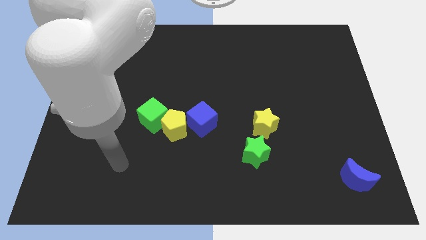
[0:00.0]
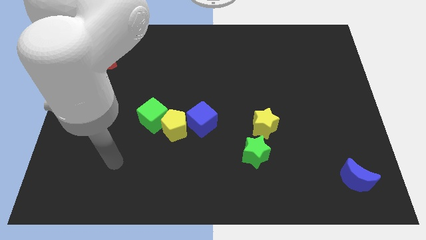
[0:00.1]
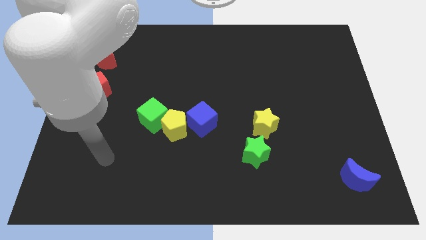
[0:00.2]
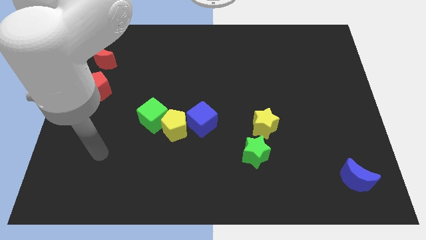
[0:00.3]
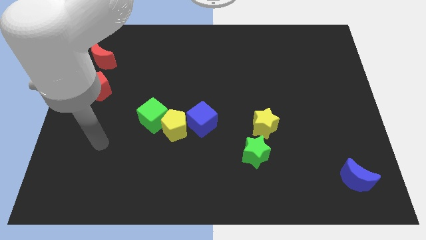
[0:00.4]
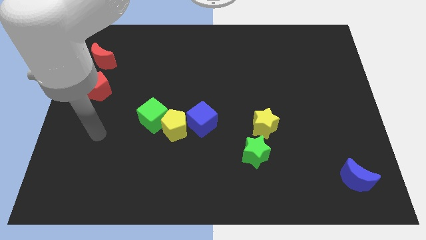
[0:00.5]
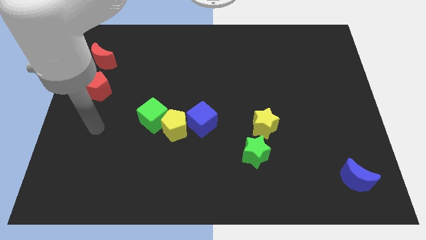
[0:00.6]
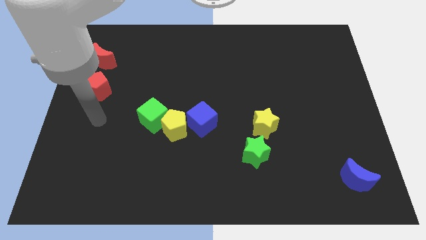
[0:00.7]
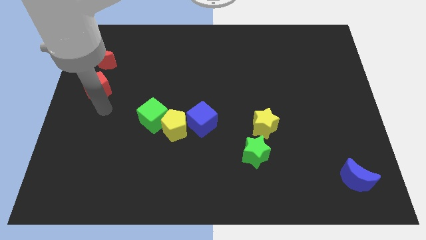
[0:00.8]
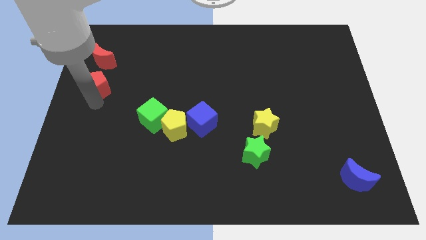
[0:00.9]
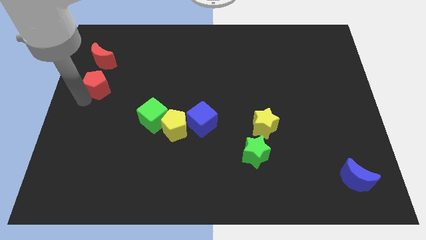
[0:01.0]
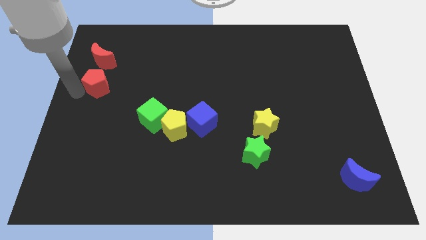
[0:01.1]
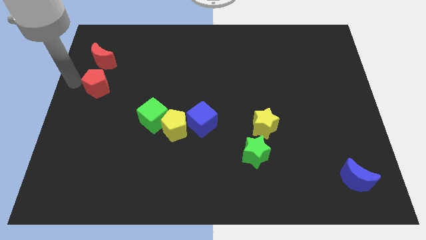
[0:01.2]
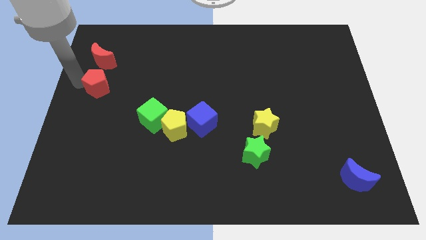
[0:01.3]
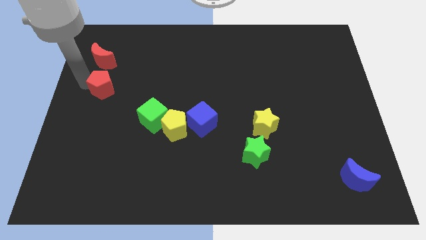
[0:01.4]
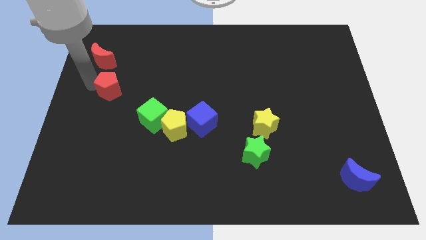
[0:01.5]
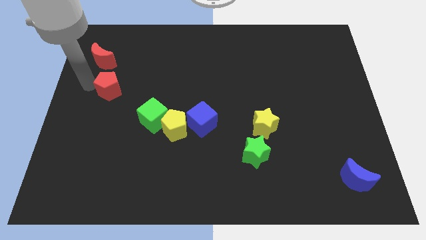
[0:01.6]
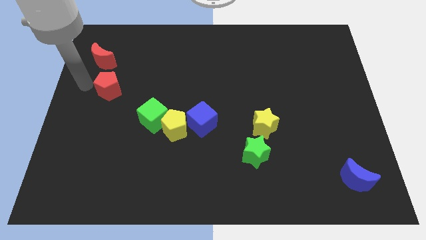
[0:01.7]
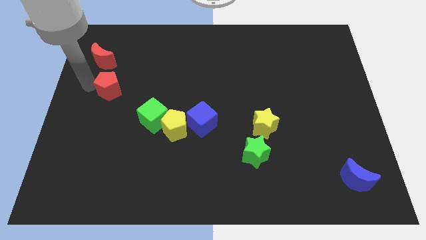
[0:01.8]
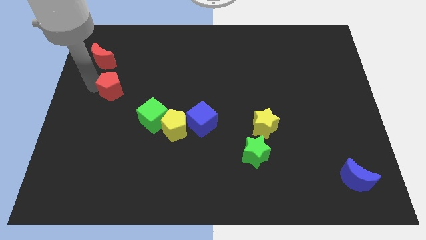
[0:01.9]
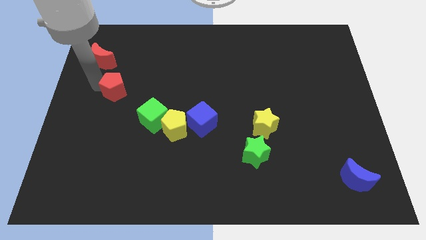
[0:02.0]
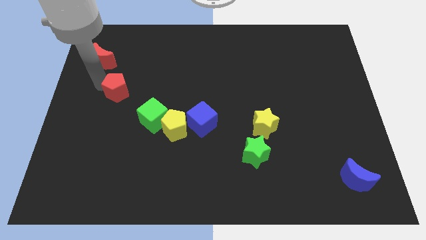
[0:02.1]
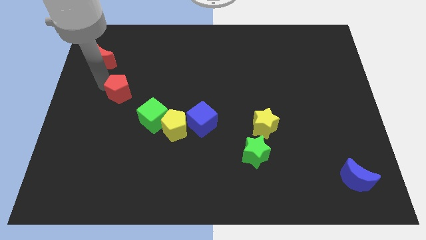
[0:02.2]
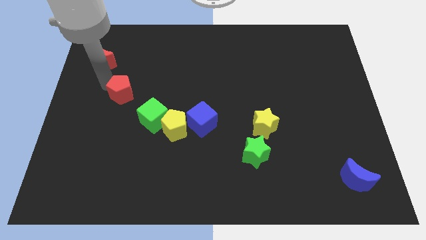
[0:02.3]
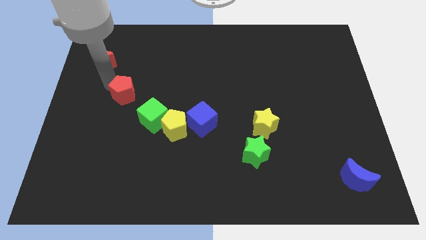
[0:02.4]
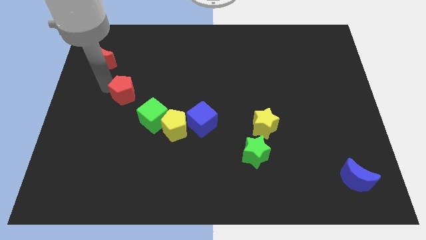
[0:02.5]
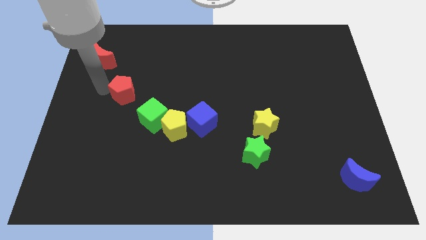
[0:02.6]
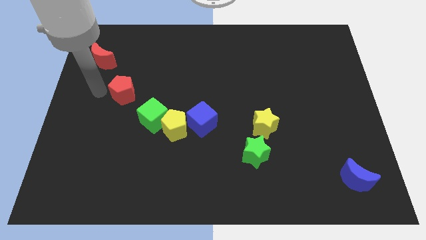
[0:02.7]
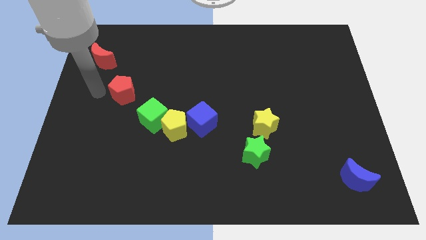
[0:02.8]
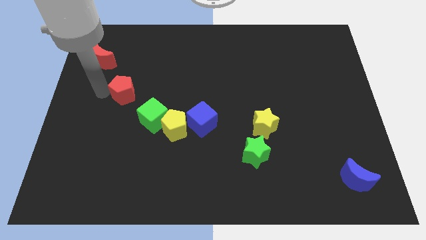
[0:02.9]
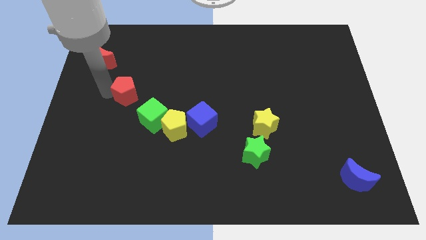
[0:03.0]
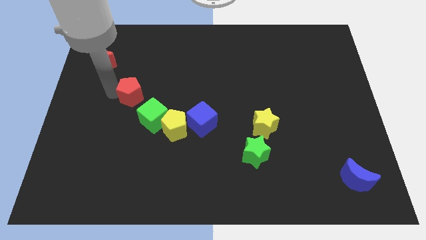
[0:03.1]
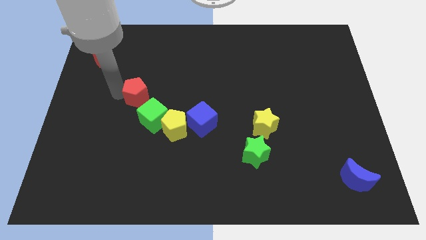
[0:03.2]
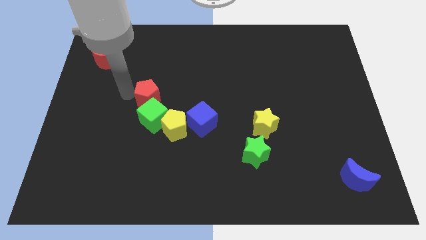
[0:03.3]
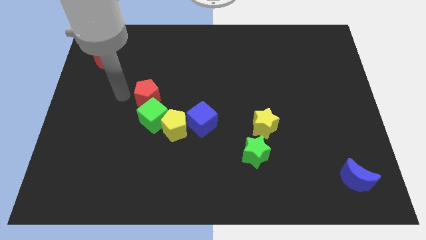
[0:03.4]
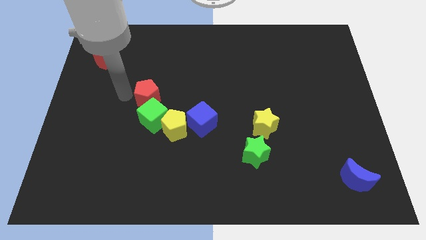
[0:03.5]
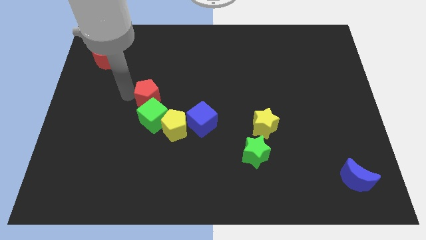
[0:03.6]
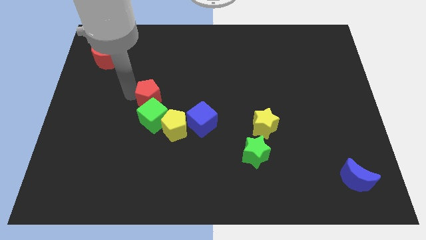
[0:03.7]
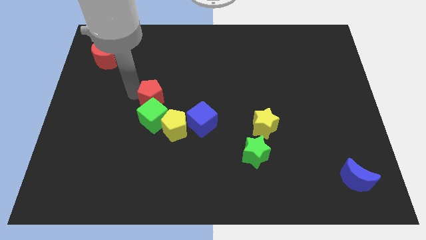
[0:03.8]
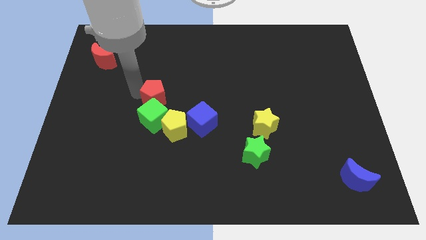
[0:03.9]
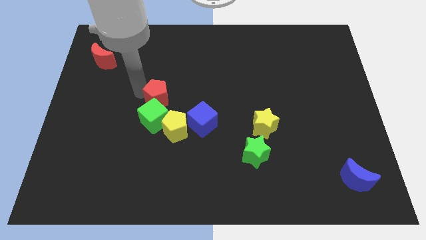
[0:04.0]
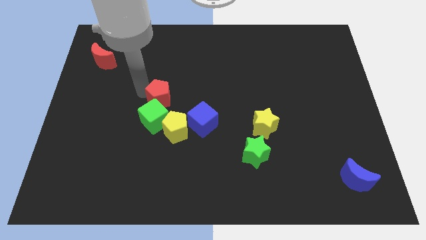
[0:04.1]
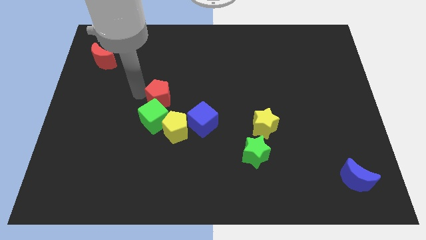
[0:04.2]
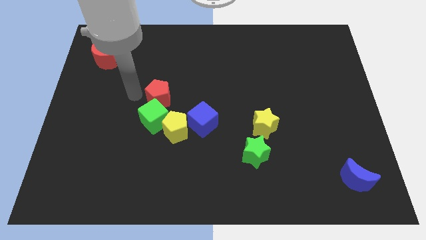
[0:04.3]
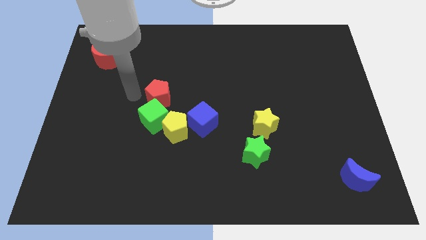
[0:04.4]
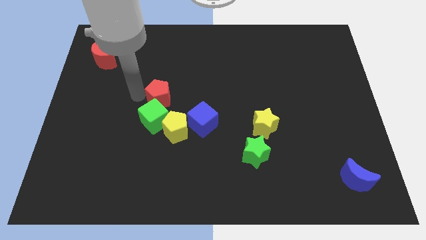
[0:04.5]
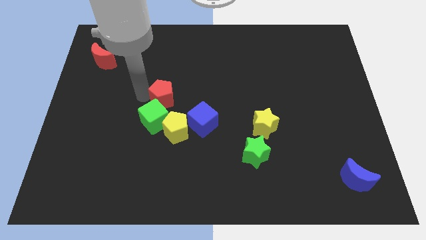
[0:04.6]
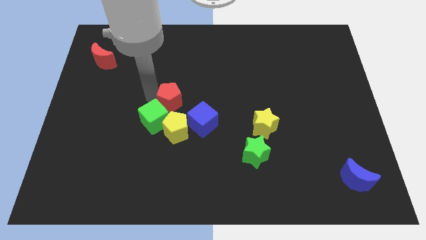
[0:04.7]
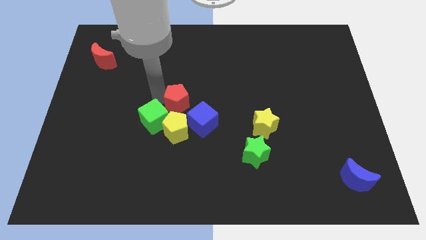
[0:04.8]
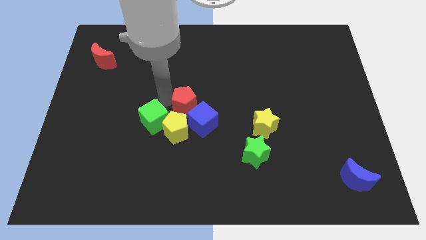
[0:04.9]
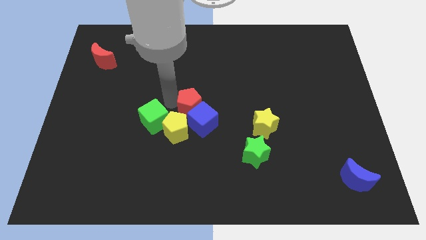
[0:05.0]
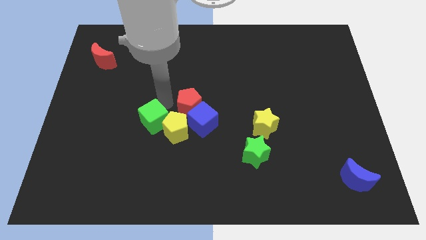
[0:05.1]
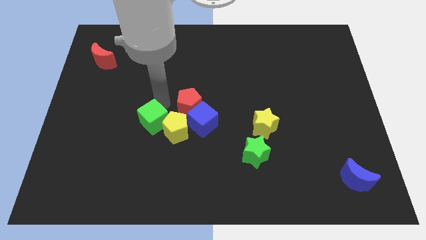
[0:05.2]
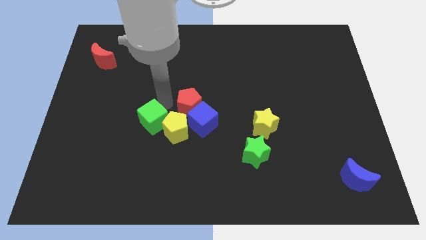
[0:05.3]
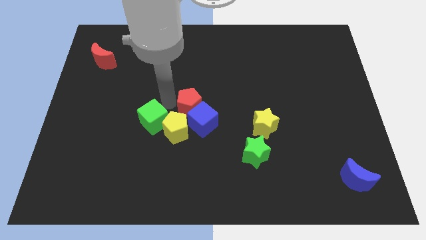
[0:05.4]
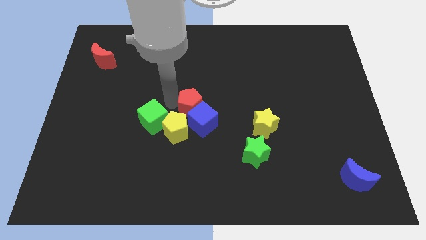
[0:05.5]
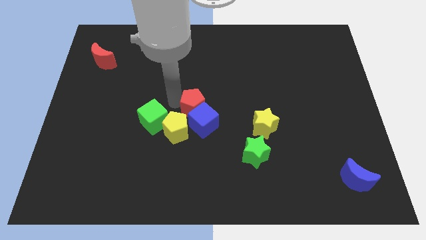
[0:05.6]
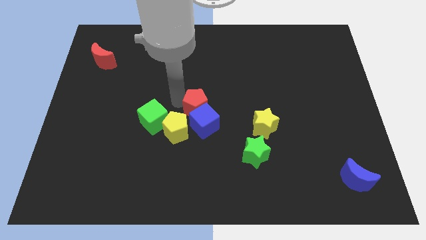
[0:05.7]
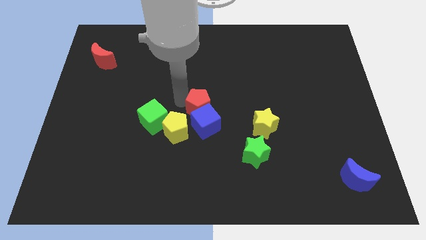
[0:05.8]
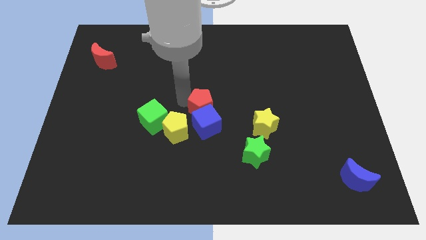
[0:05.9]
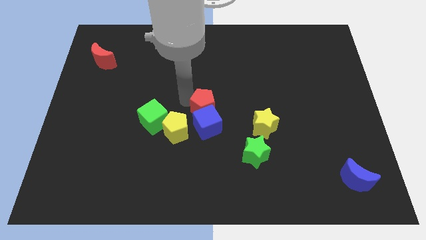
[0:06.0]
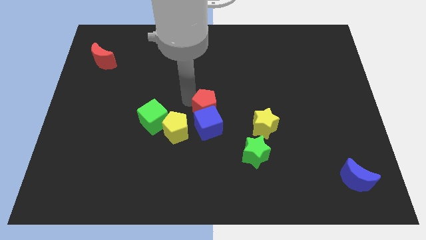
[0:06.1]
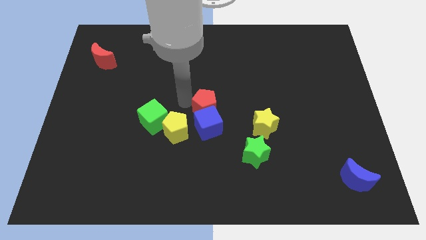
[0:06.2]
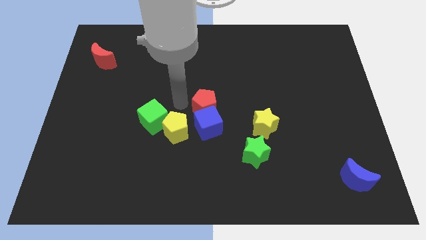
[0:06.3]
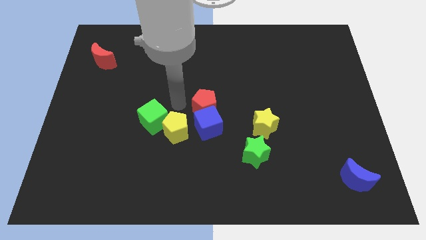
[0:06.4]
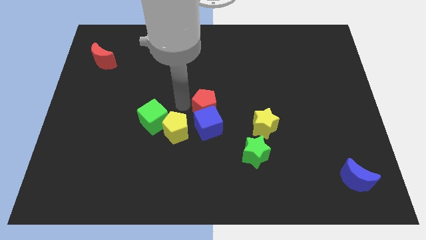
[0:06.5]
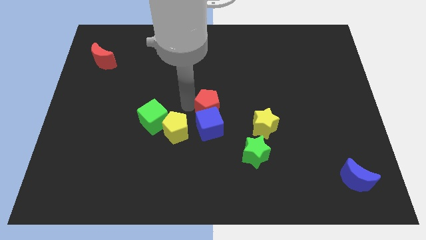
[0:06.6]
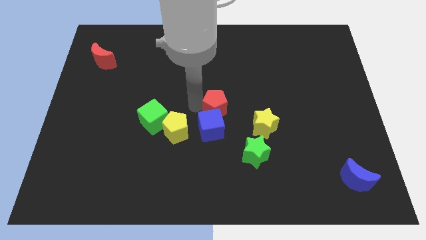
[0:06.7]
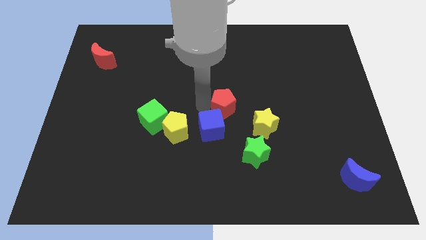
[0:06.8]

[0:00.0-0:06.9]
slide the red pentagon to the top left side of the yellow star

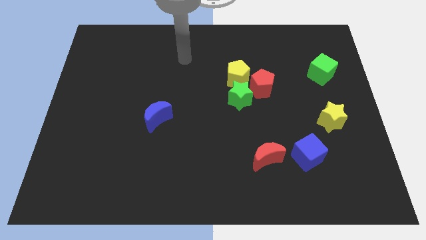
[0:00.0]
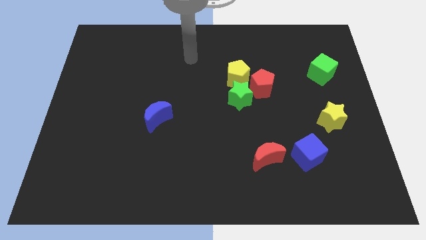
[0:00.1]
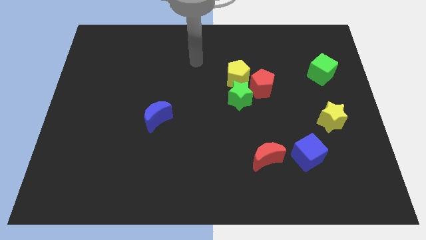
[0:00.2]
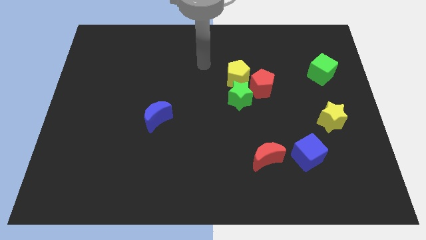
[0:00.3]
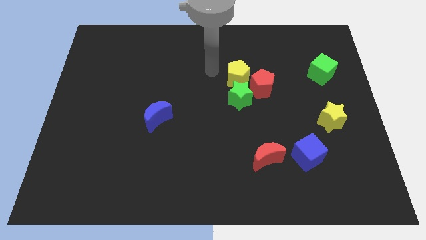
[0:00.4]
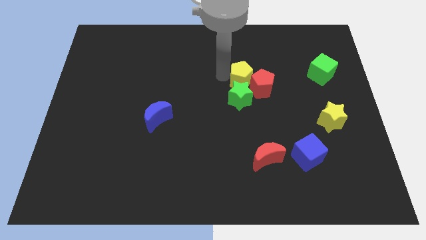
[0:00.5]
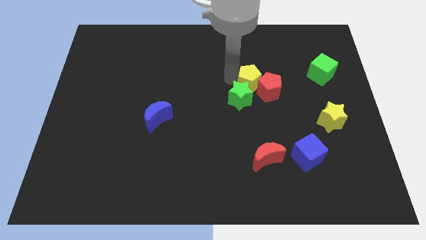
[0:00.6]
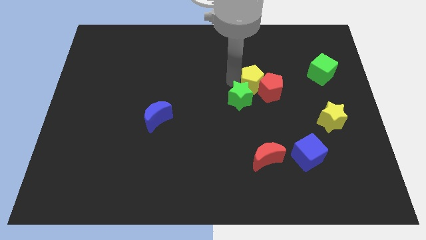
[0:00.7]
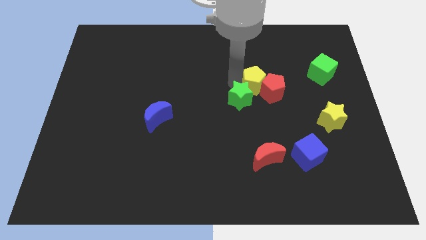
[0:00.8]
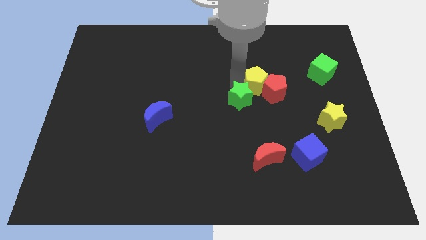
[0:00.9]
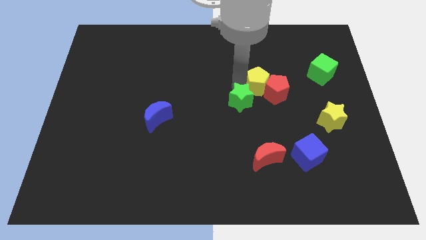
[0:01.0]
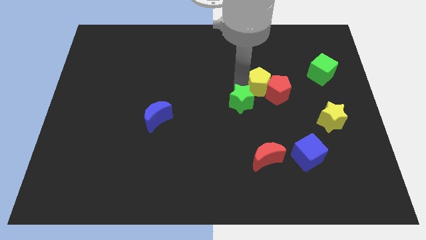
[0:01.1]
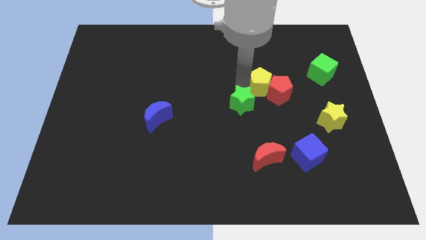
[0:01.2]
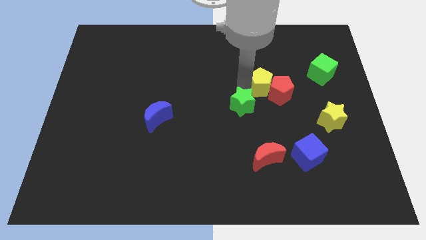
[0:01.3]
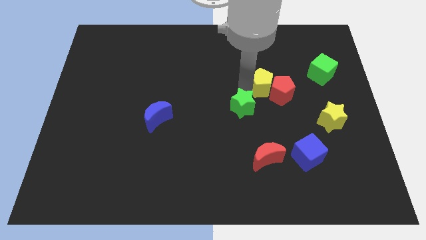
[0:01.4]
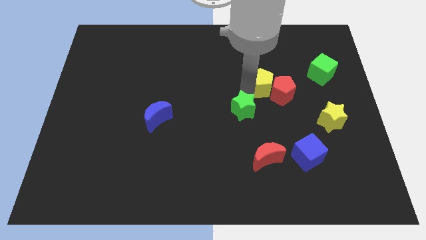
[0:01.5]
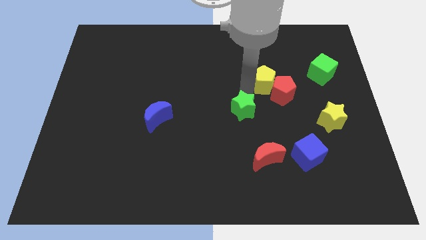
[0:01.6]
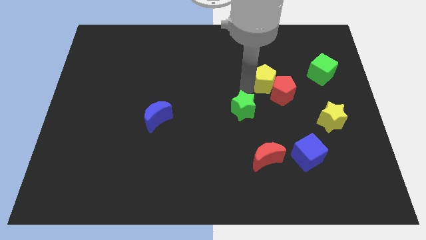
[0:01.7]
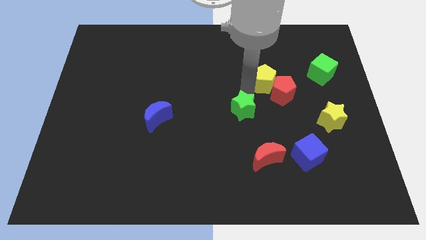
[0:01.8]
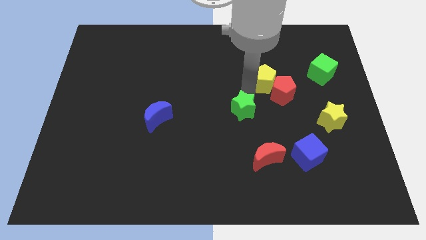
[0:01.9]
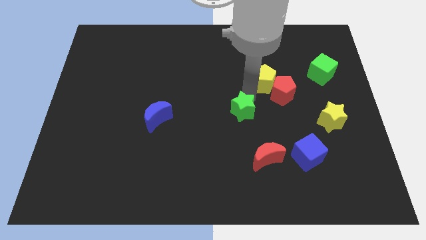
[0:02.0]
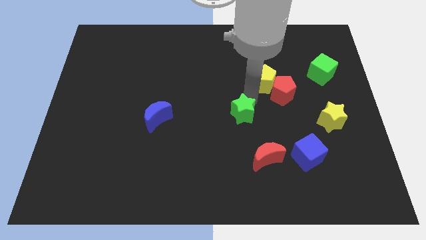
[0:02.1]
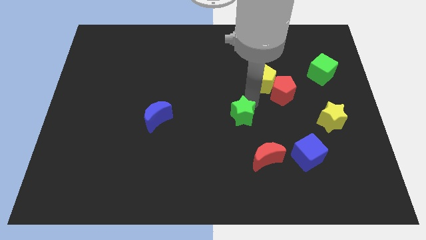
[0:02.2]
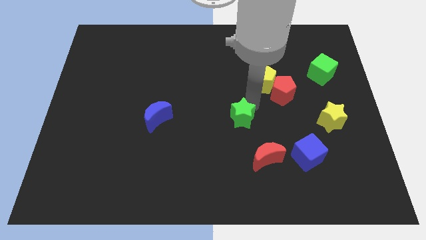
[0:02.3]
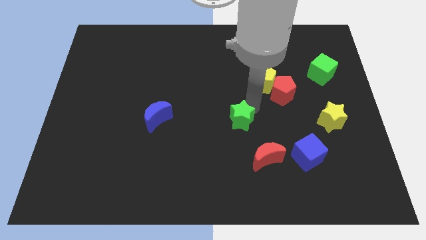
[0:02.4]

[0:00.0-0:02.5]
put the green star to the top left of the red moon
